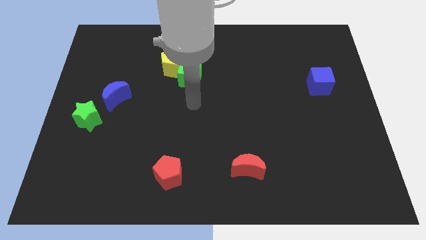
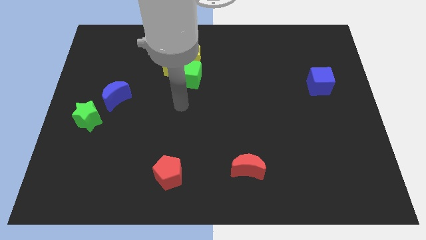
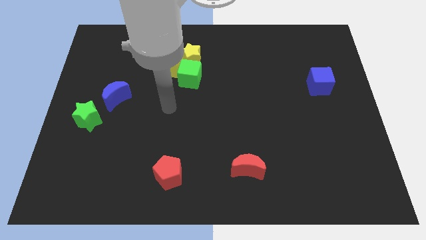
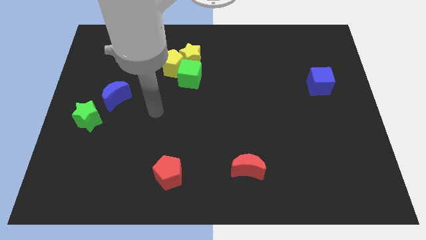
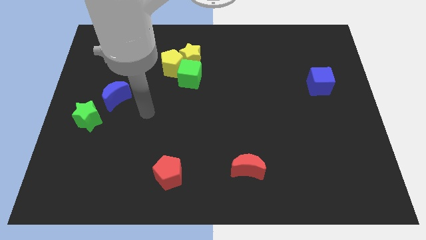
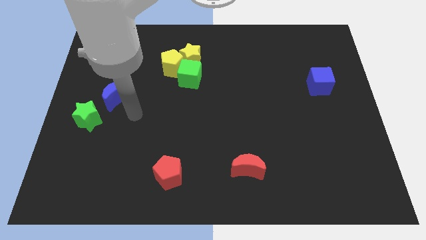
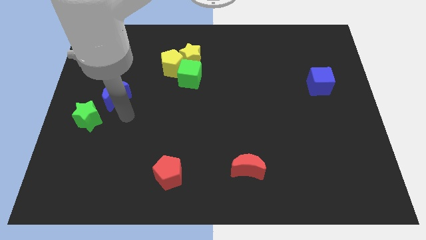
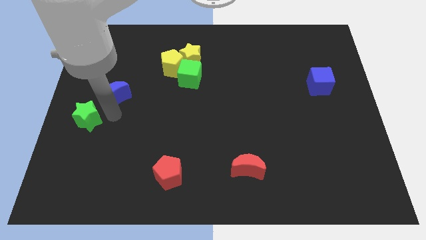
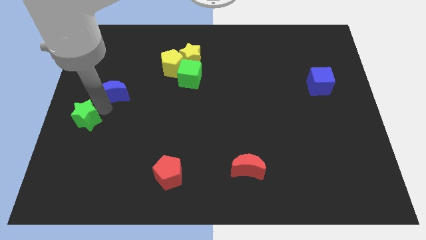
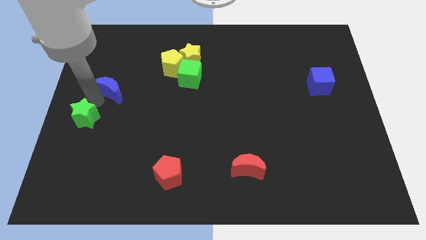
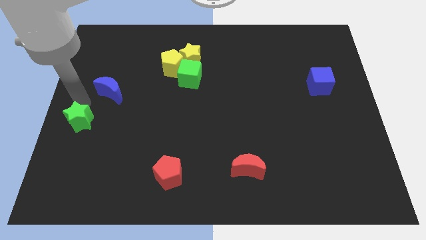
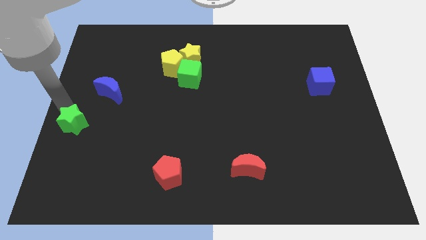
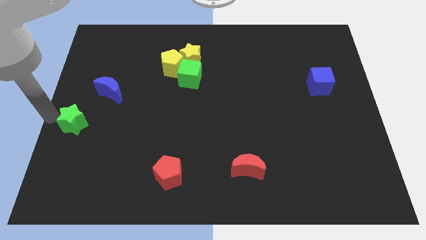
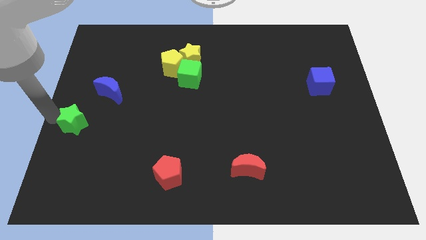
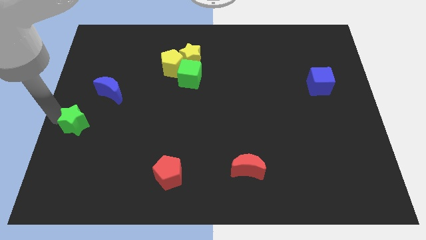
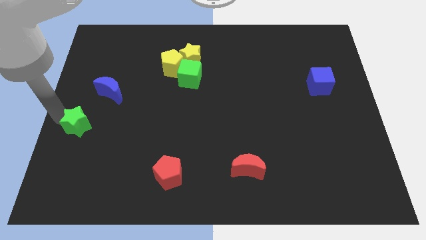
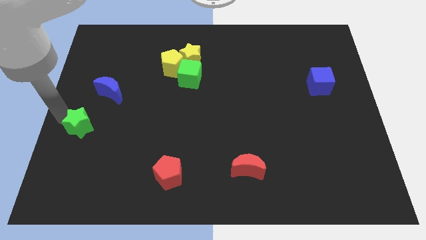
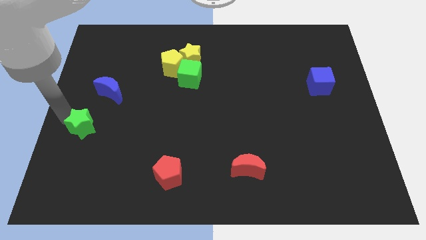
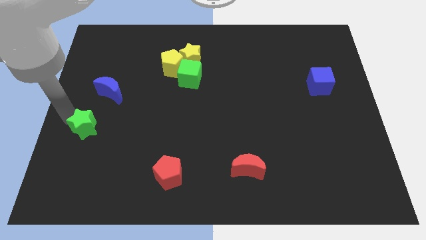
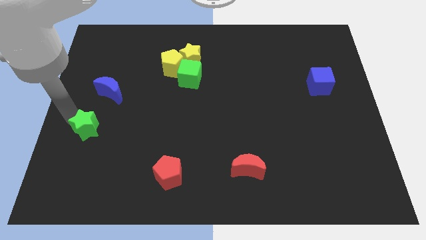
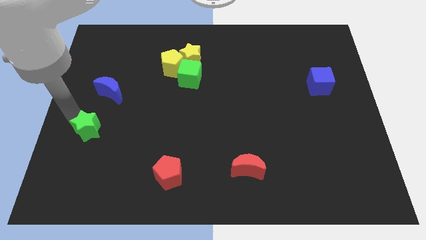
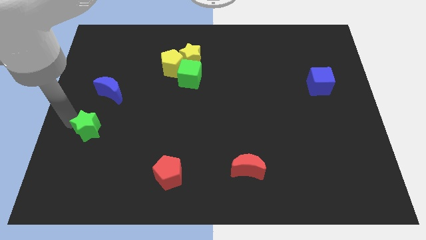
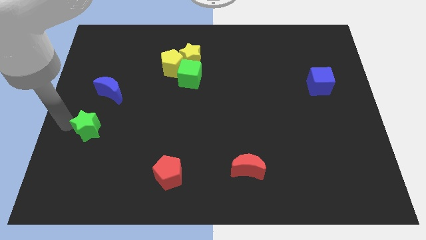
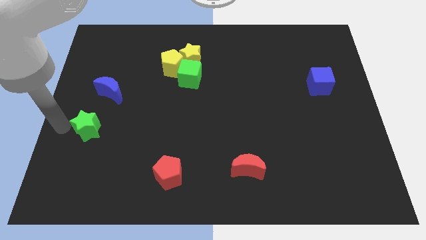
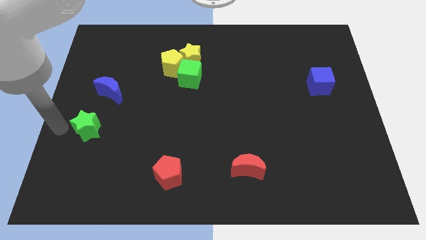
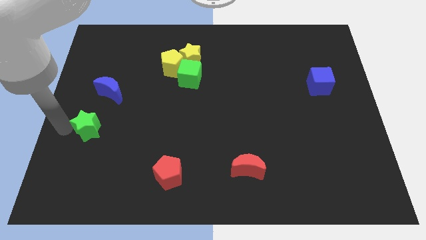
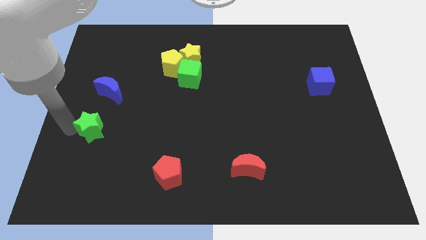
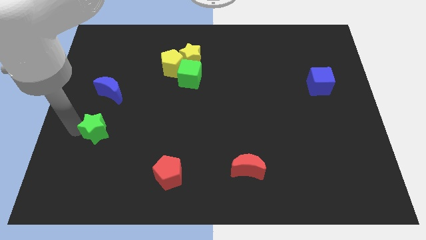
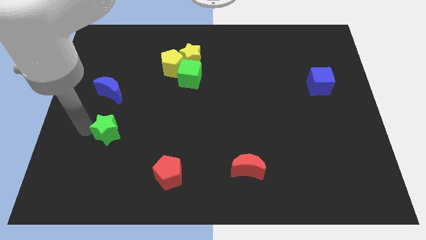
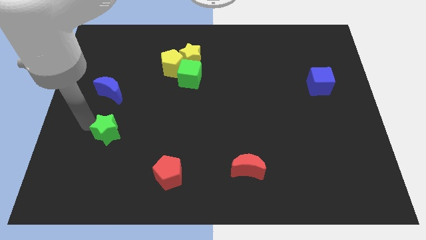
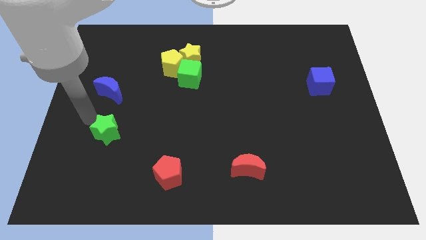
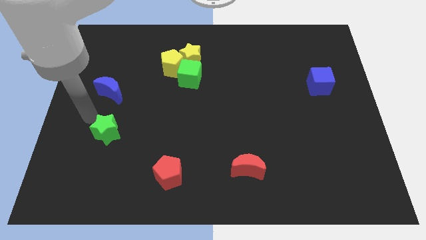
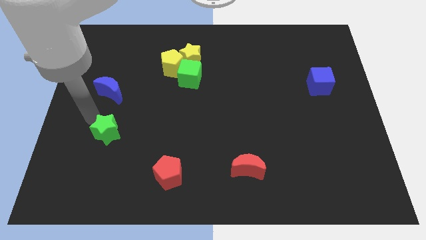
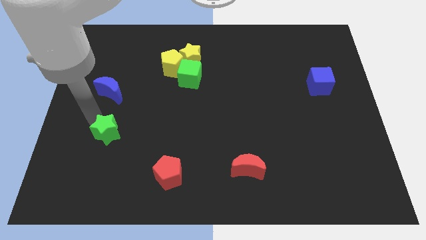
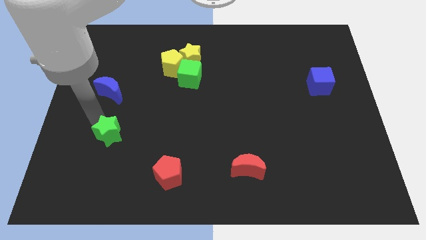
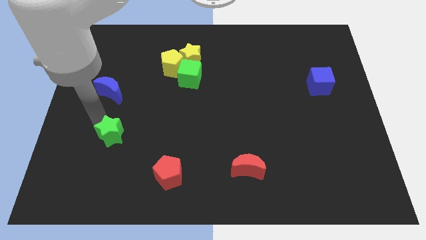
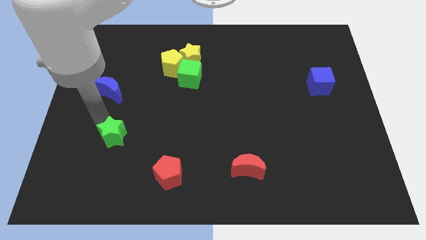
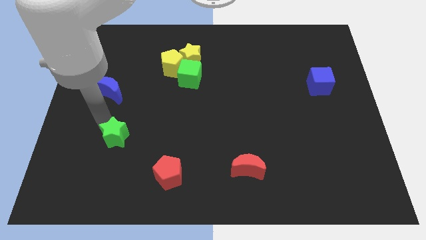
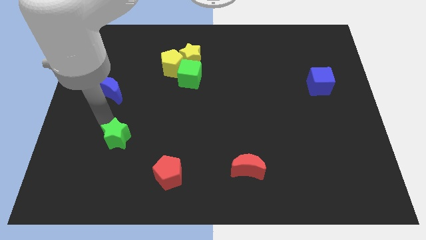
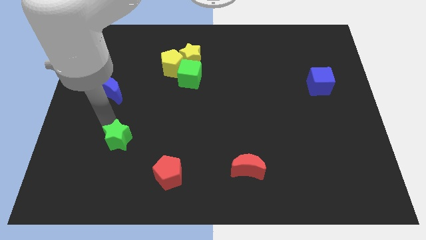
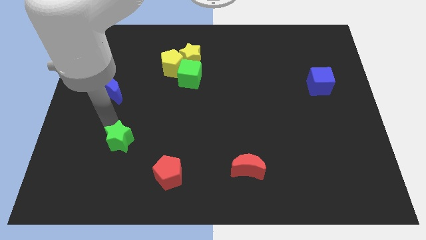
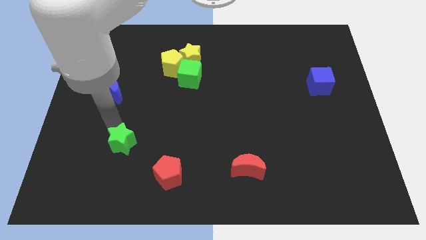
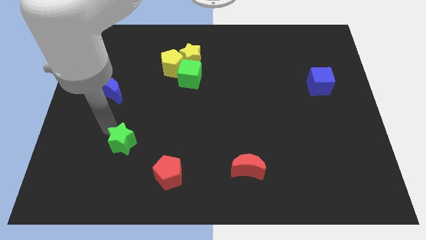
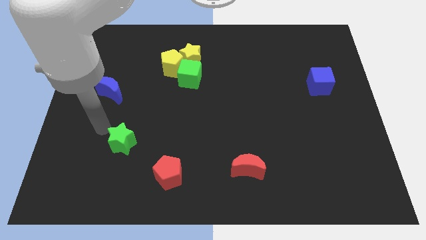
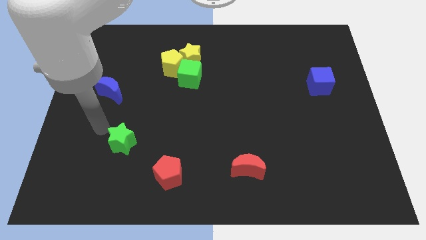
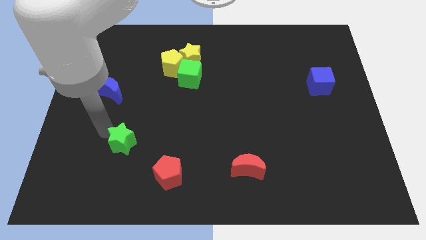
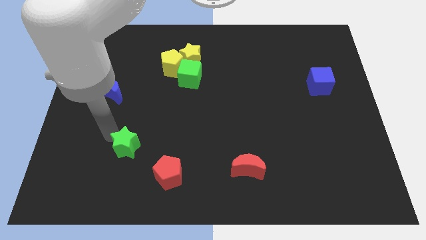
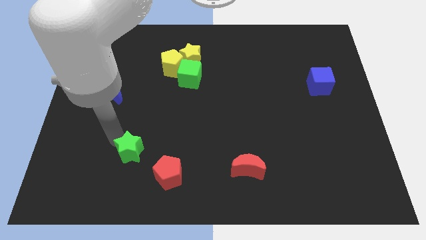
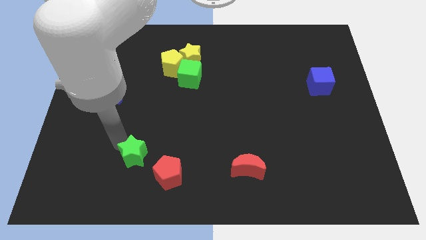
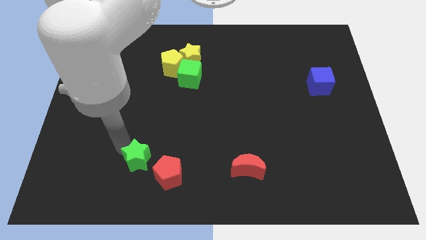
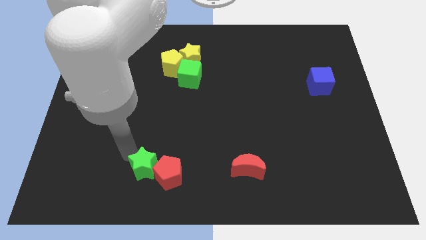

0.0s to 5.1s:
move the green star towards the red pentagon

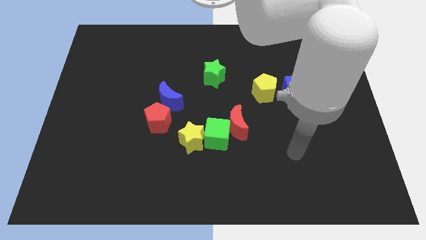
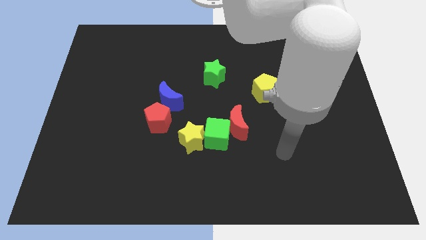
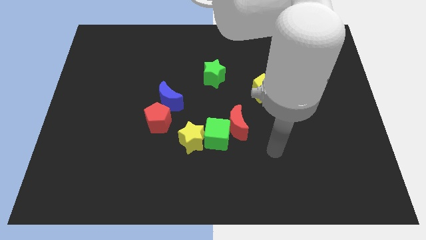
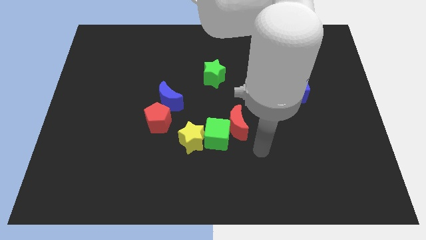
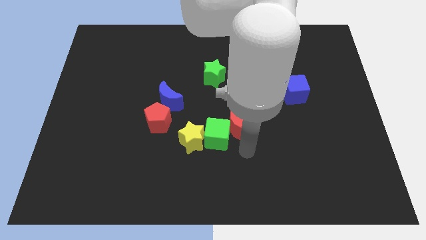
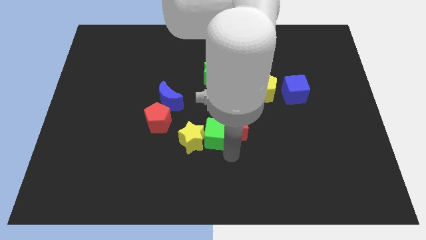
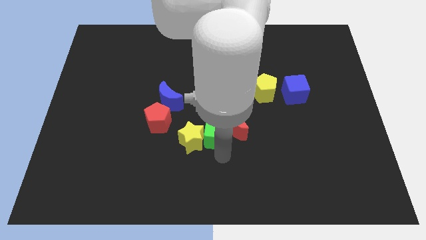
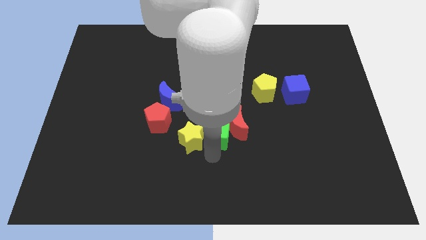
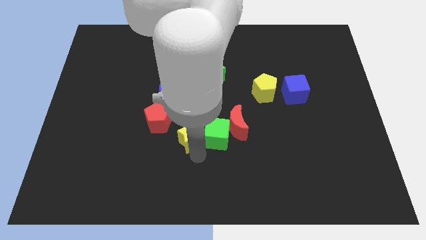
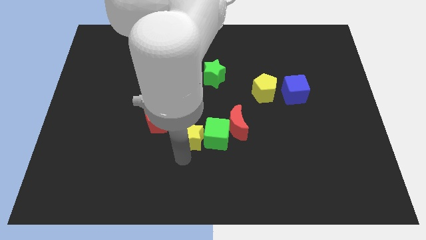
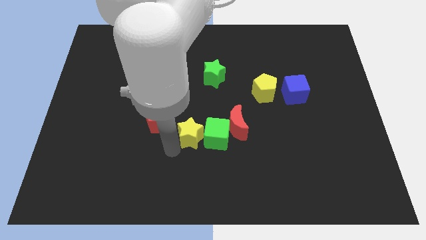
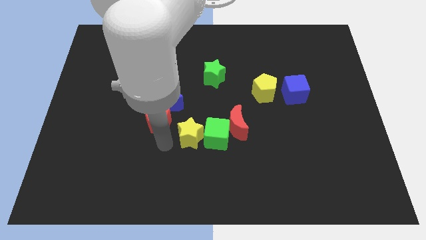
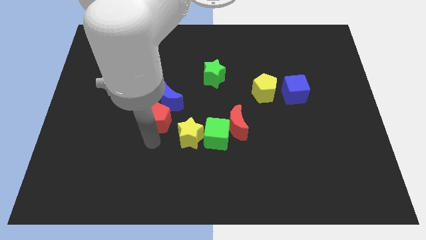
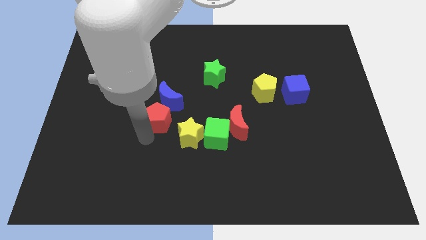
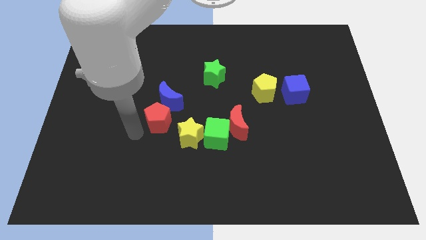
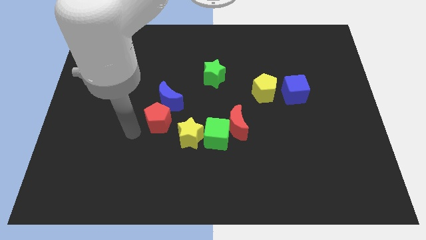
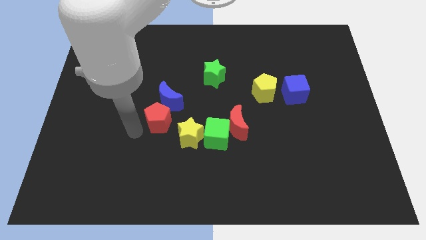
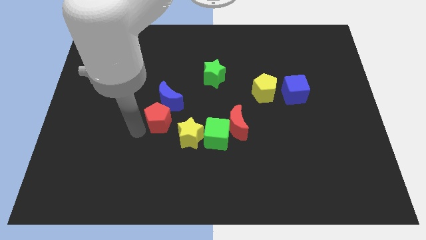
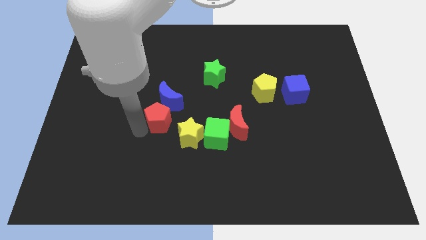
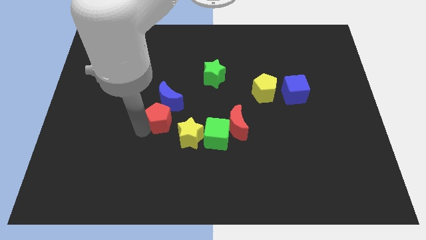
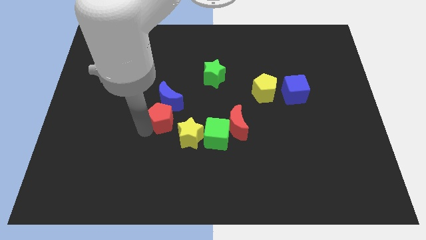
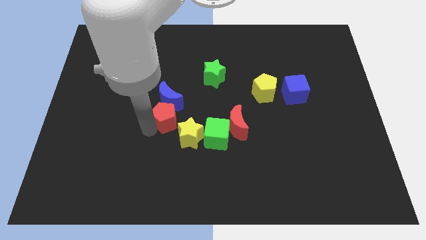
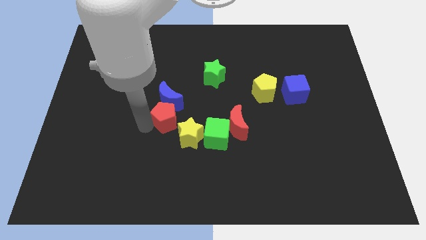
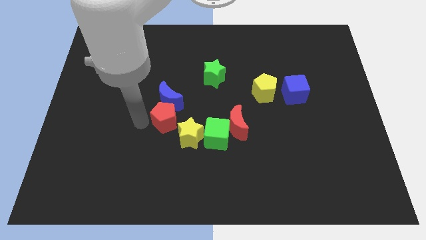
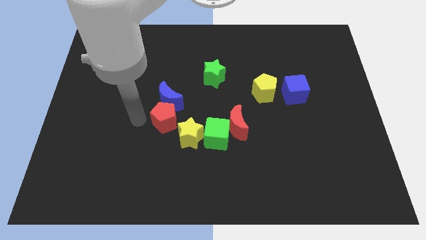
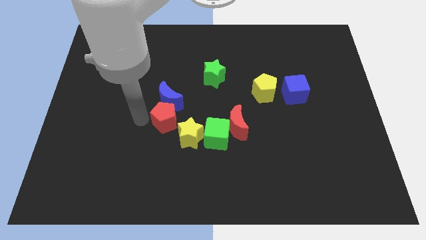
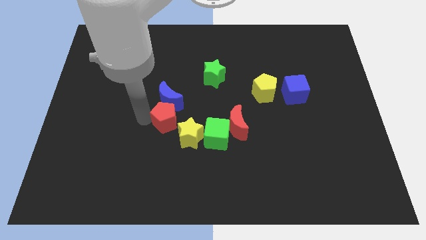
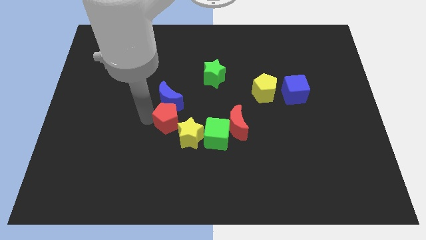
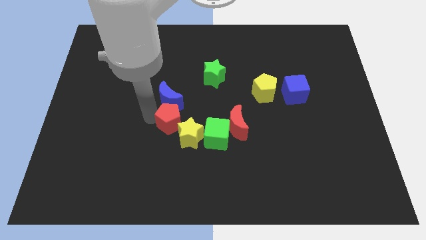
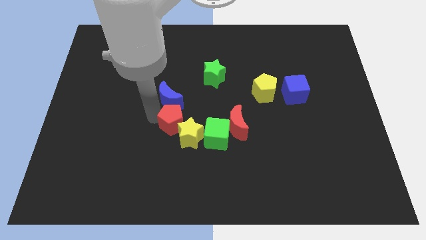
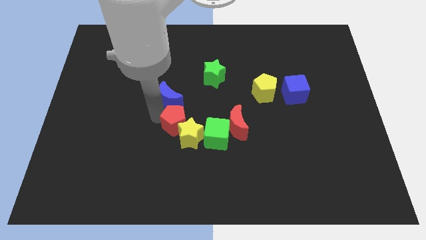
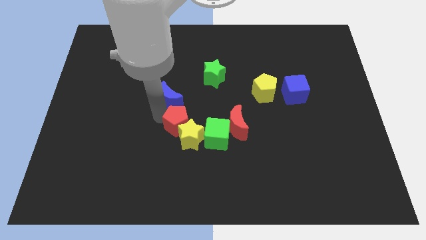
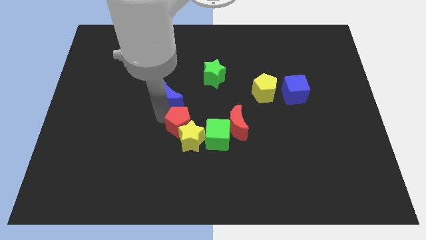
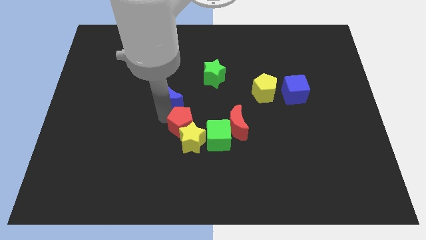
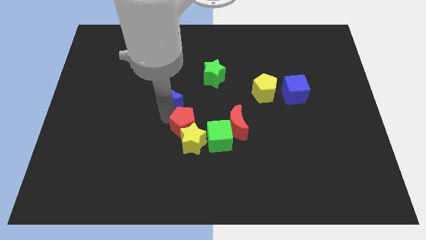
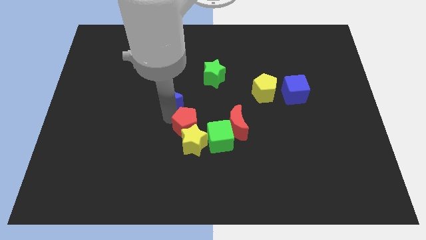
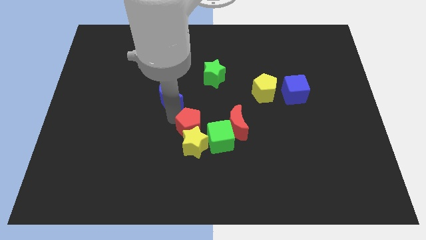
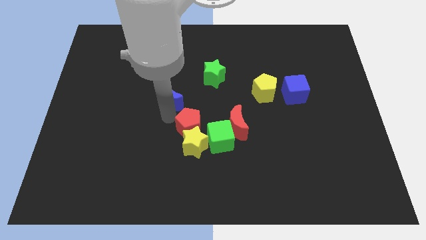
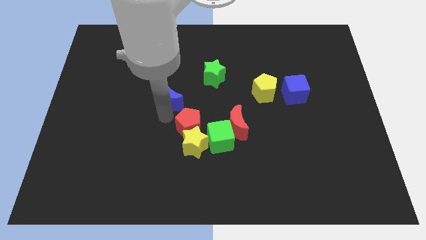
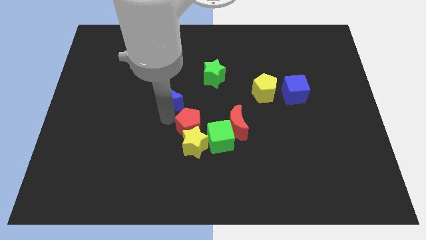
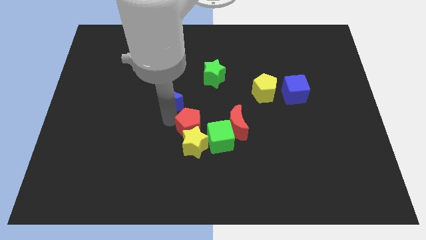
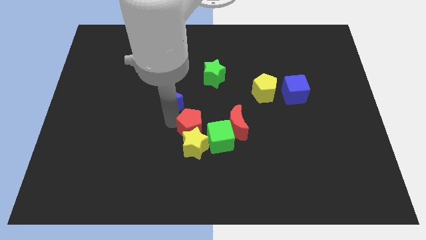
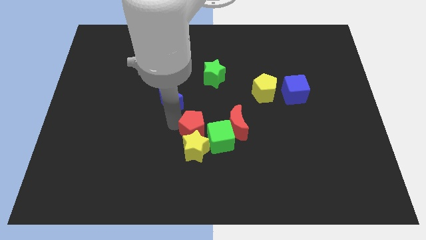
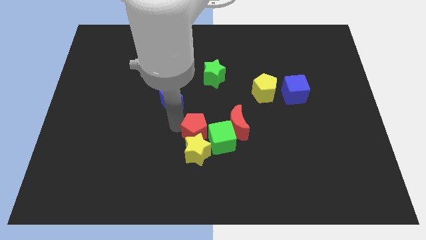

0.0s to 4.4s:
slide the red pentagon to the green cube
